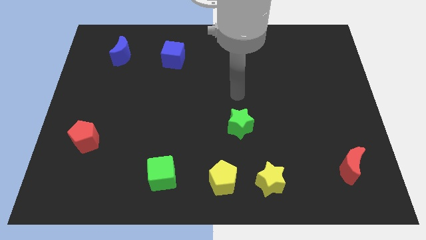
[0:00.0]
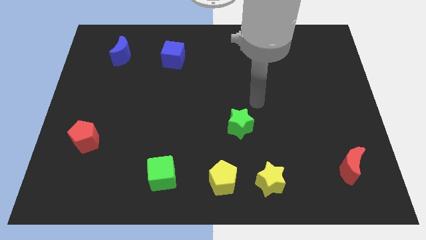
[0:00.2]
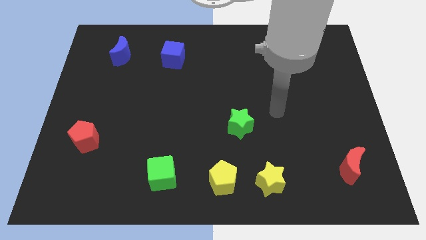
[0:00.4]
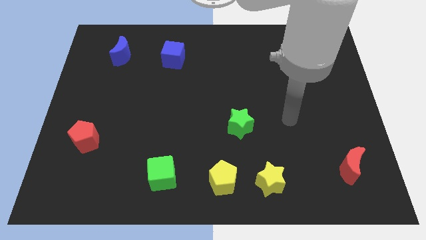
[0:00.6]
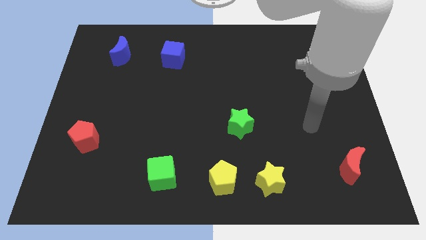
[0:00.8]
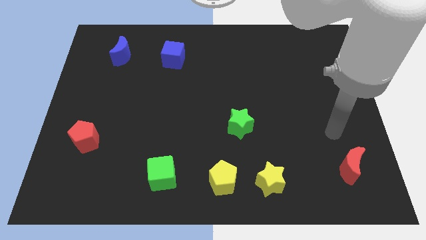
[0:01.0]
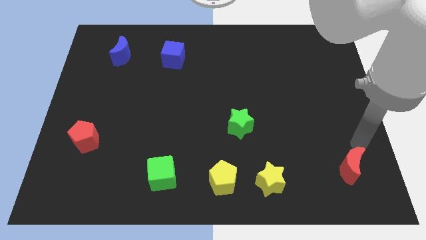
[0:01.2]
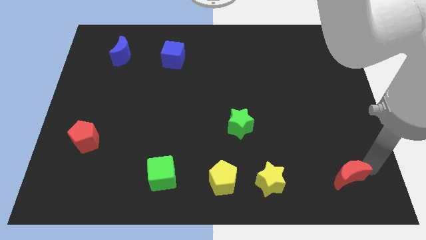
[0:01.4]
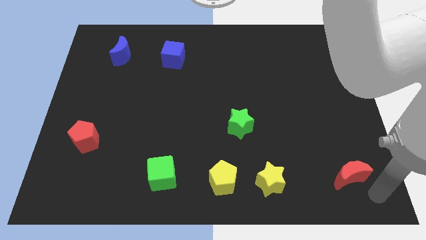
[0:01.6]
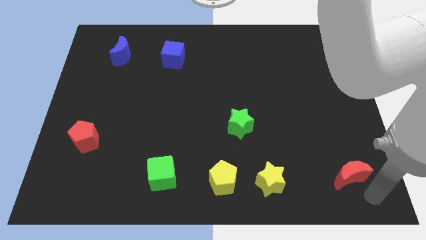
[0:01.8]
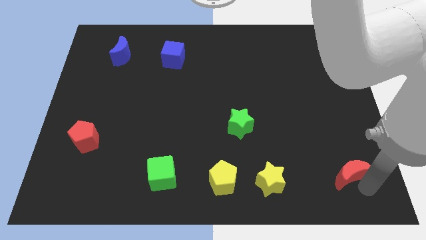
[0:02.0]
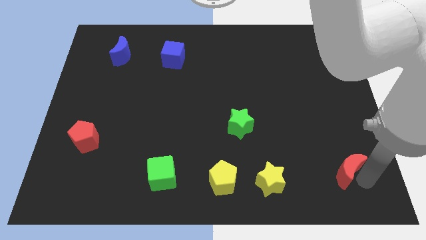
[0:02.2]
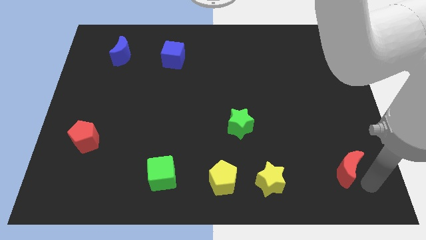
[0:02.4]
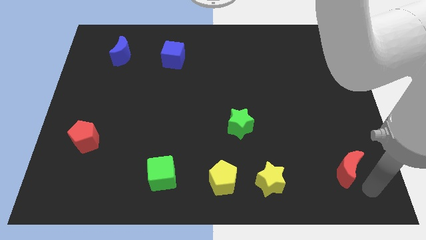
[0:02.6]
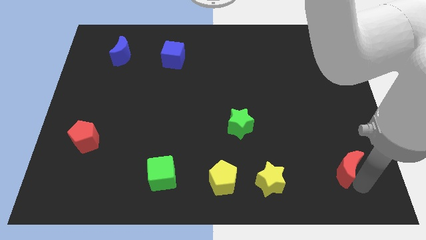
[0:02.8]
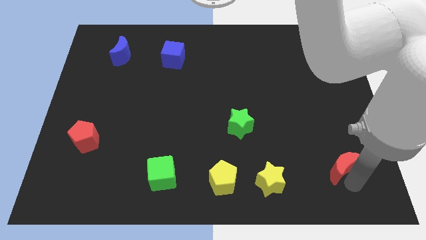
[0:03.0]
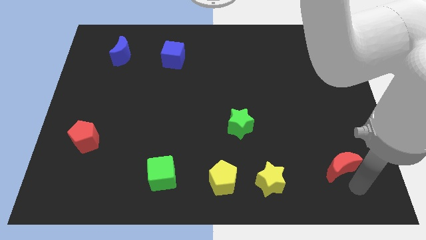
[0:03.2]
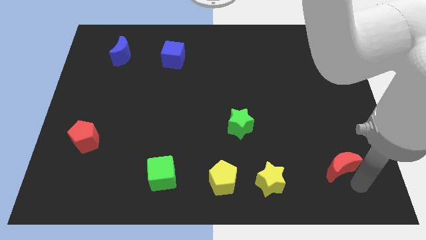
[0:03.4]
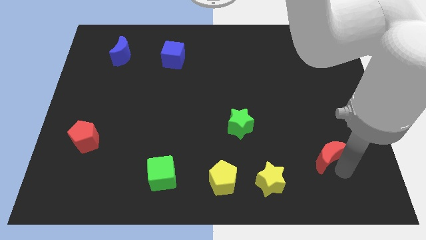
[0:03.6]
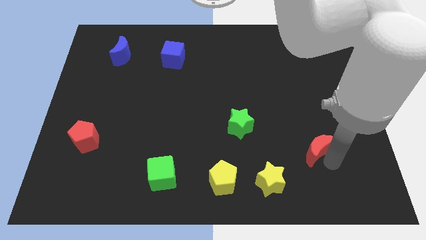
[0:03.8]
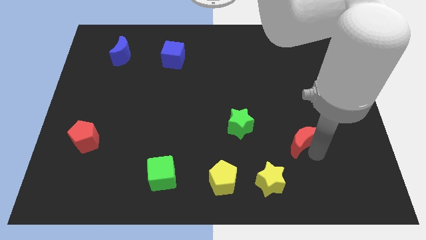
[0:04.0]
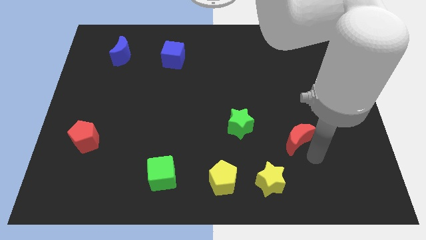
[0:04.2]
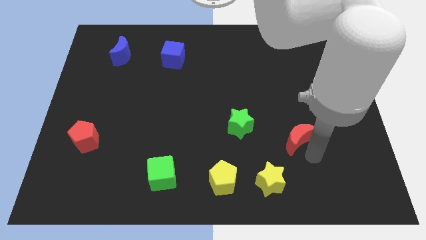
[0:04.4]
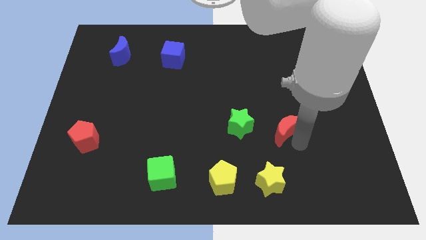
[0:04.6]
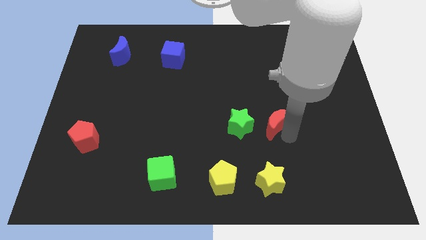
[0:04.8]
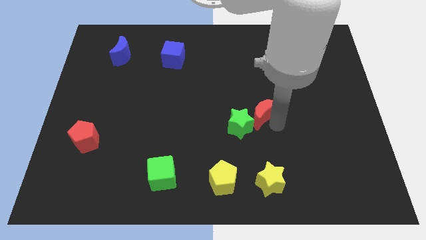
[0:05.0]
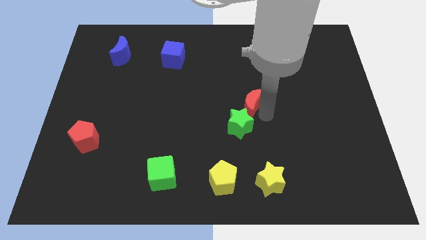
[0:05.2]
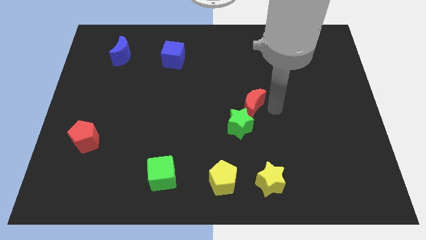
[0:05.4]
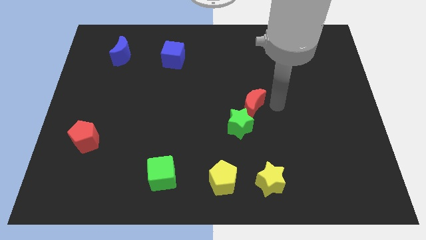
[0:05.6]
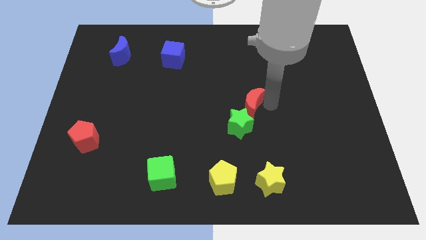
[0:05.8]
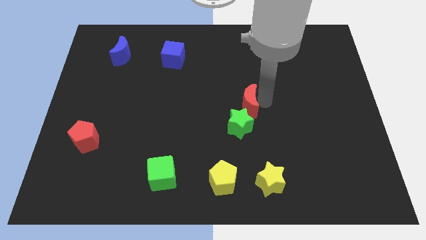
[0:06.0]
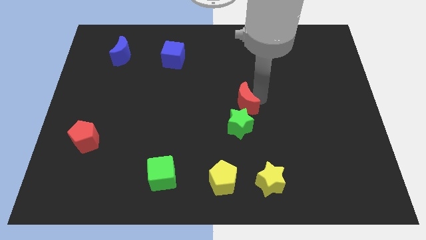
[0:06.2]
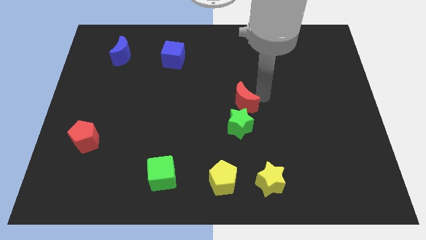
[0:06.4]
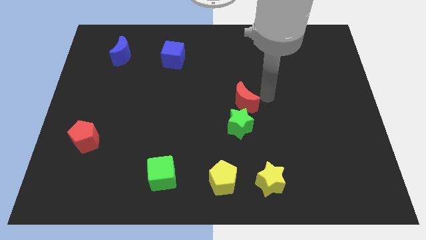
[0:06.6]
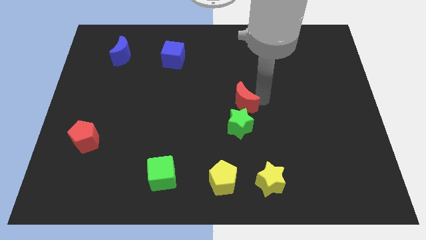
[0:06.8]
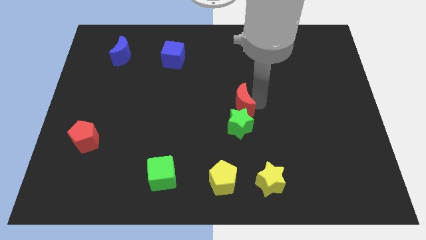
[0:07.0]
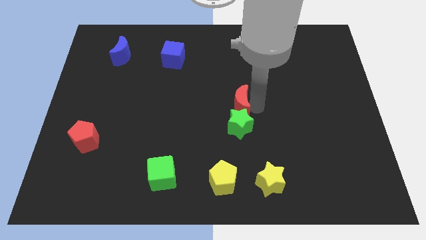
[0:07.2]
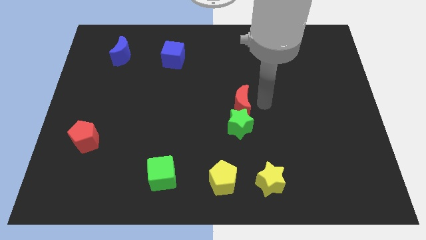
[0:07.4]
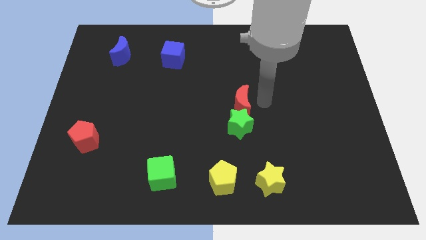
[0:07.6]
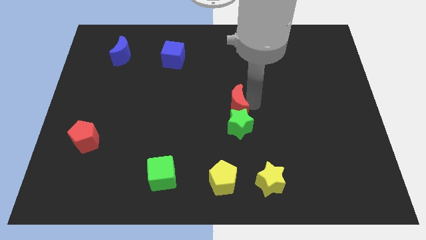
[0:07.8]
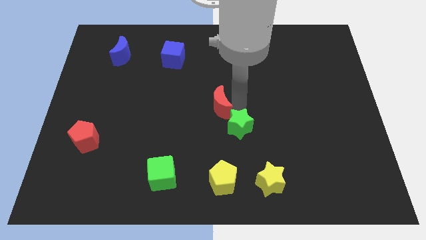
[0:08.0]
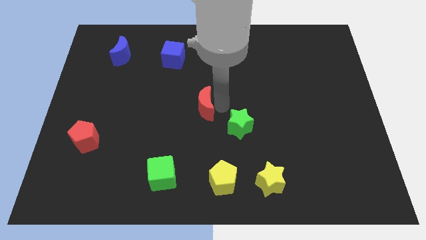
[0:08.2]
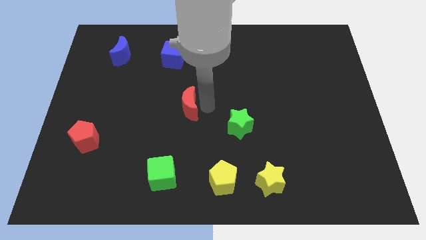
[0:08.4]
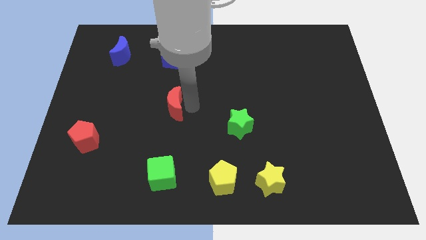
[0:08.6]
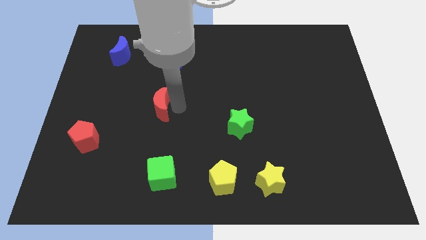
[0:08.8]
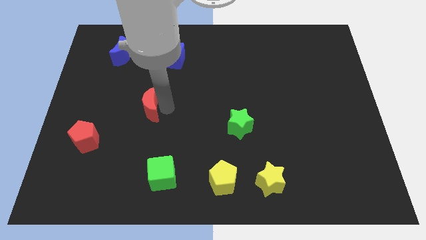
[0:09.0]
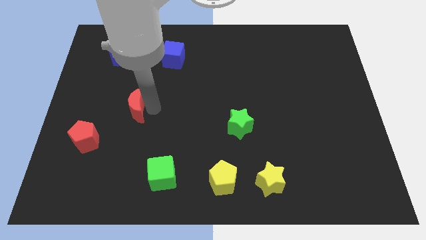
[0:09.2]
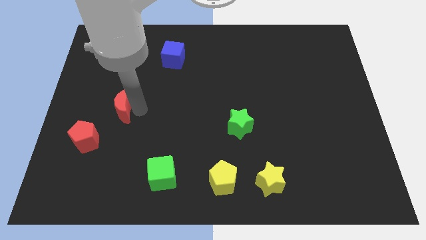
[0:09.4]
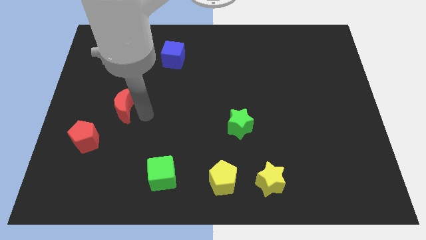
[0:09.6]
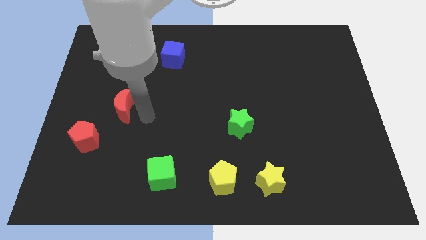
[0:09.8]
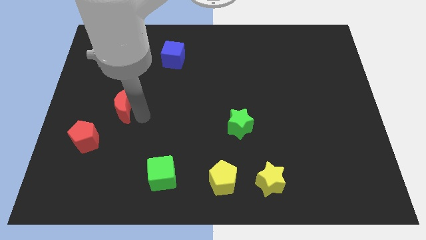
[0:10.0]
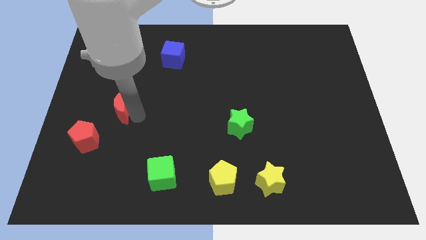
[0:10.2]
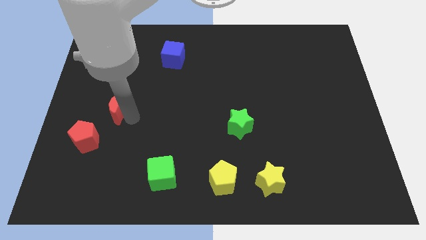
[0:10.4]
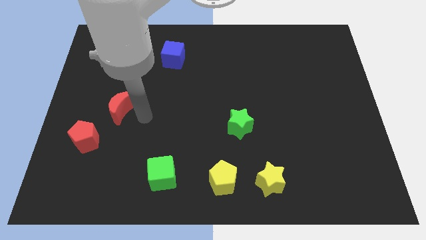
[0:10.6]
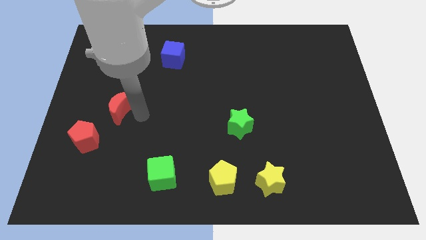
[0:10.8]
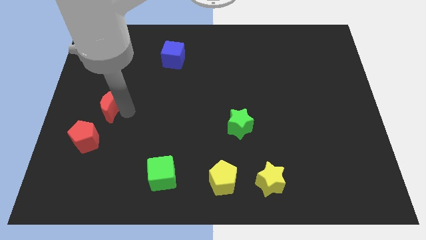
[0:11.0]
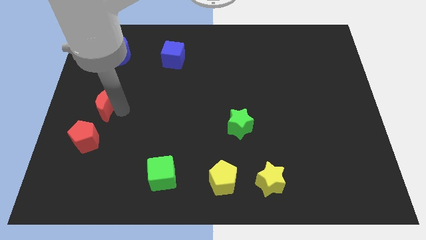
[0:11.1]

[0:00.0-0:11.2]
move the red moon to the center left

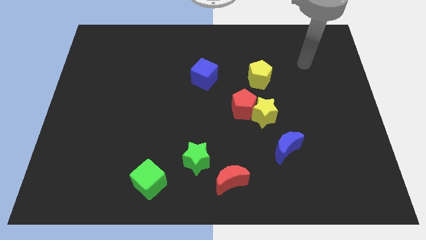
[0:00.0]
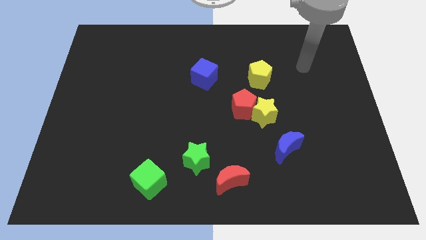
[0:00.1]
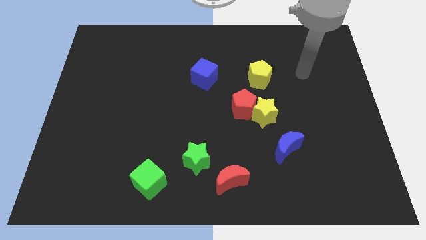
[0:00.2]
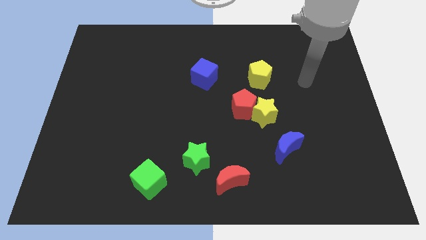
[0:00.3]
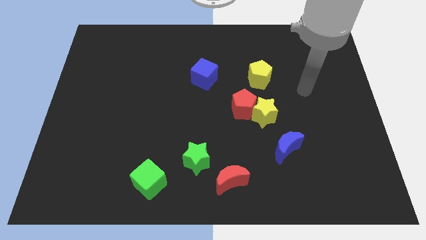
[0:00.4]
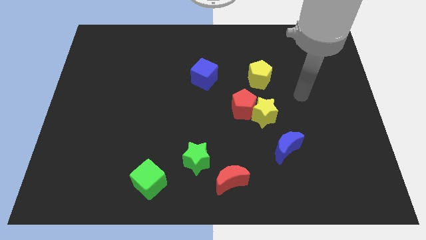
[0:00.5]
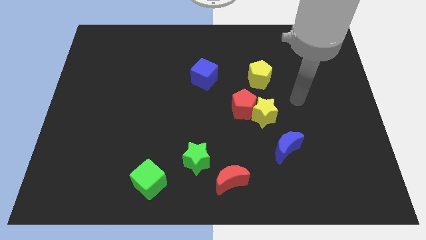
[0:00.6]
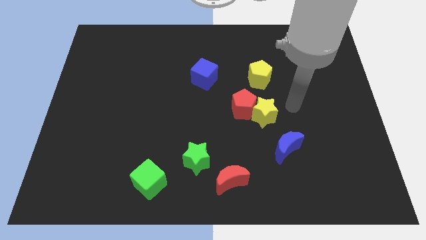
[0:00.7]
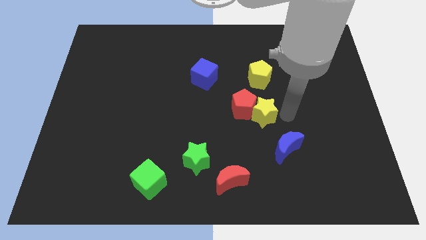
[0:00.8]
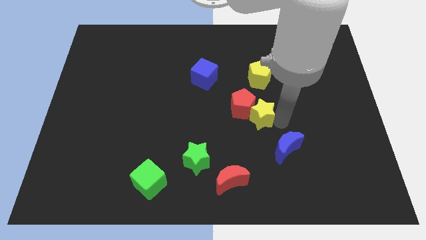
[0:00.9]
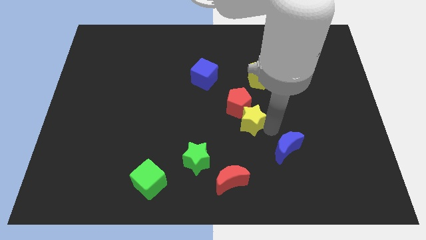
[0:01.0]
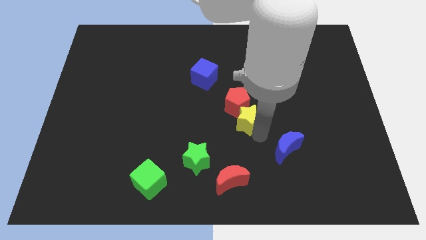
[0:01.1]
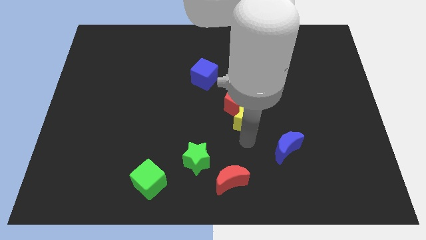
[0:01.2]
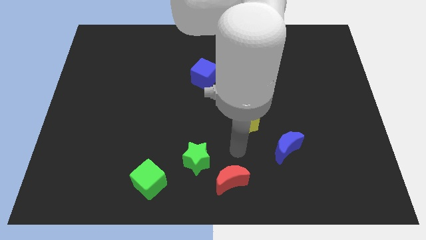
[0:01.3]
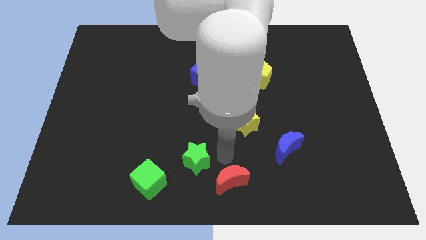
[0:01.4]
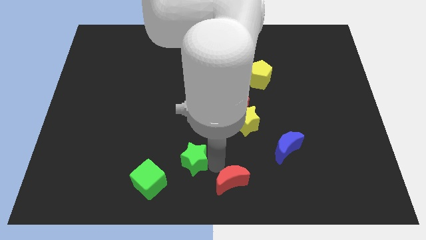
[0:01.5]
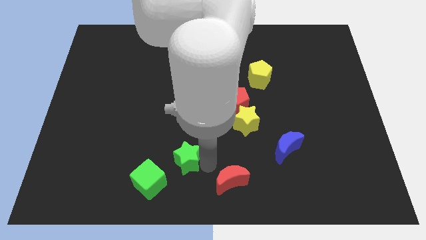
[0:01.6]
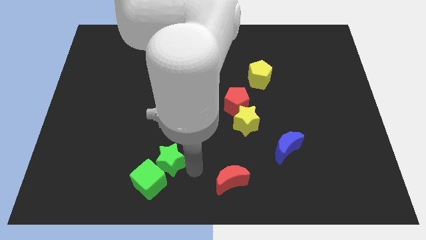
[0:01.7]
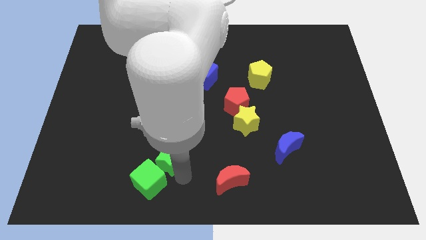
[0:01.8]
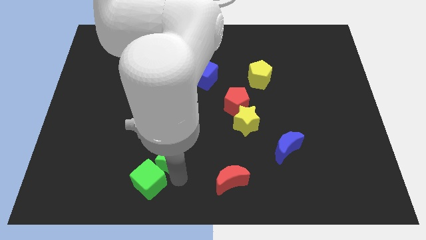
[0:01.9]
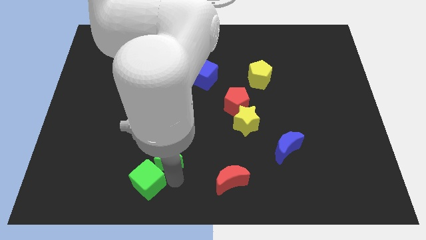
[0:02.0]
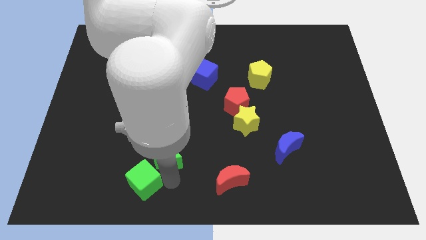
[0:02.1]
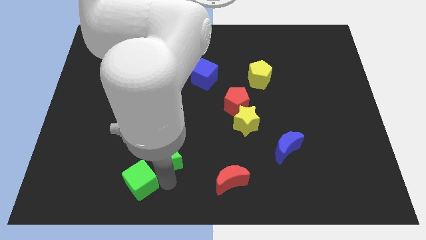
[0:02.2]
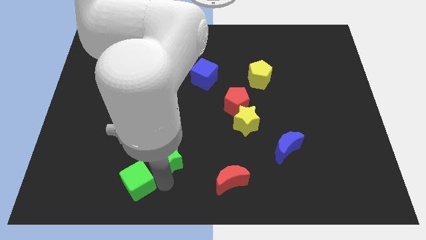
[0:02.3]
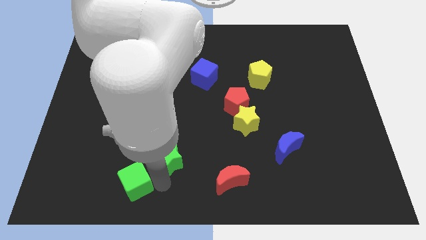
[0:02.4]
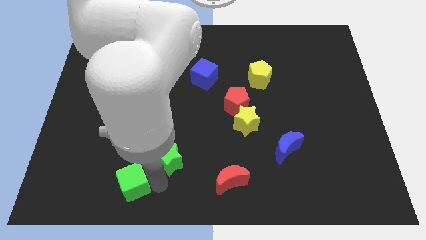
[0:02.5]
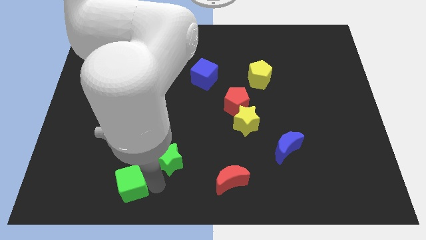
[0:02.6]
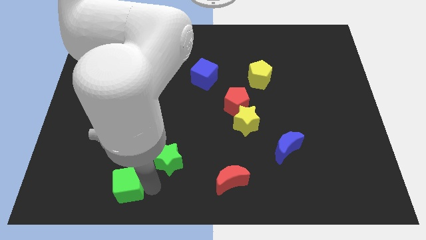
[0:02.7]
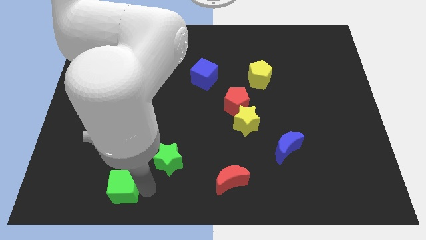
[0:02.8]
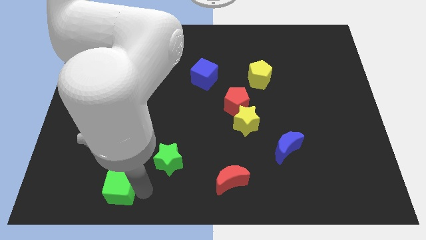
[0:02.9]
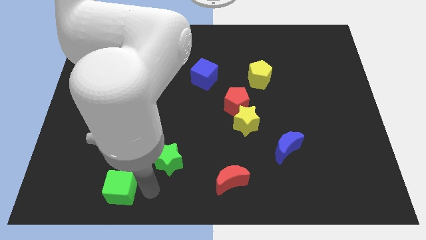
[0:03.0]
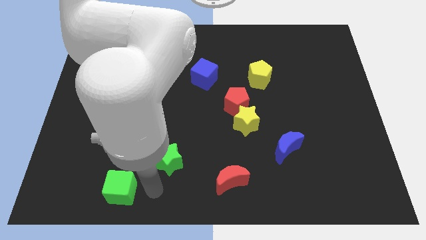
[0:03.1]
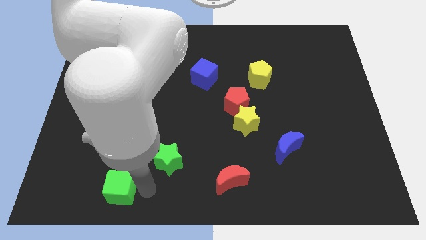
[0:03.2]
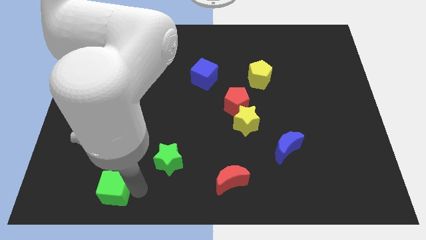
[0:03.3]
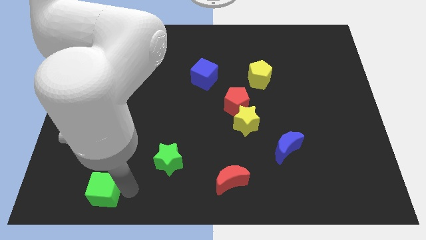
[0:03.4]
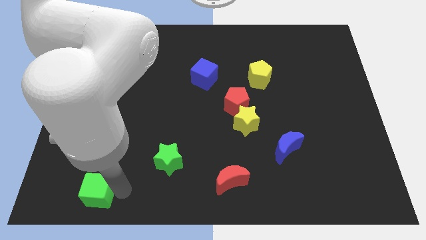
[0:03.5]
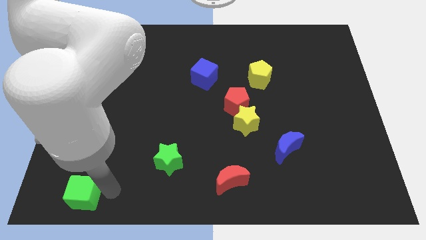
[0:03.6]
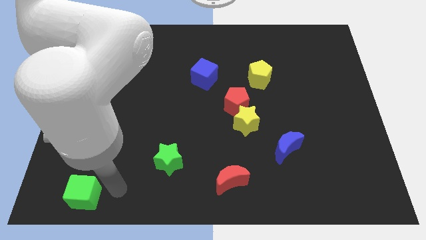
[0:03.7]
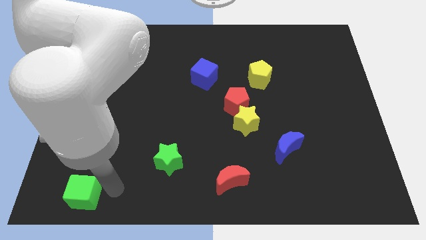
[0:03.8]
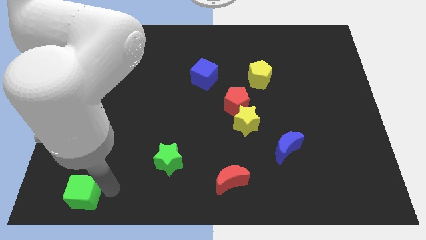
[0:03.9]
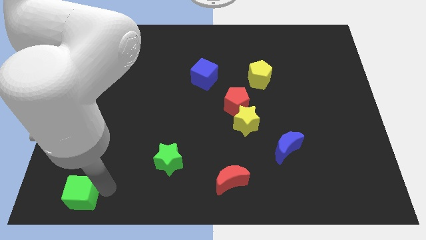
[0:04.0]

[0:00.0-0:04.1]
push the green cube to the lower left corner
